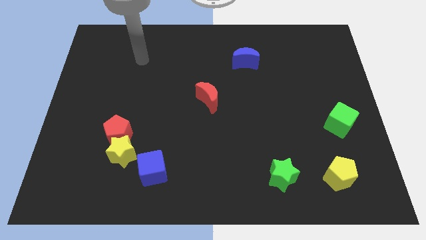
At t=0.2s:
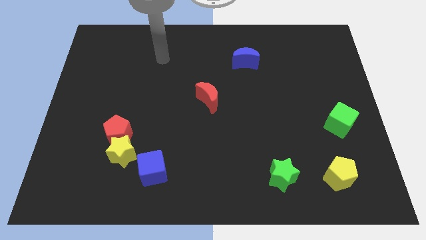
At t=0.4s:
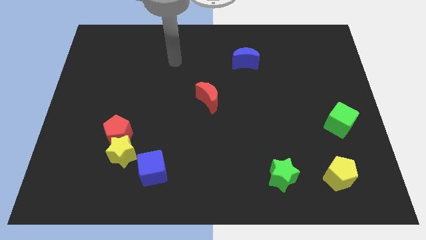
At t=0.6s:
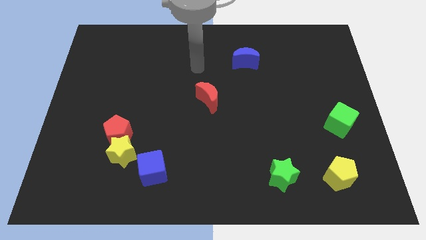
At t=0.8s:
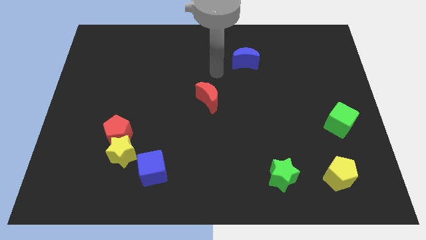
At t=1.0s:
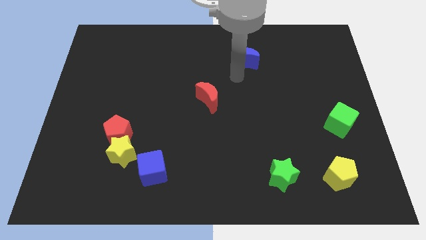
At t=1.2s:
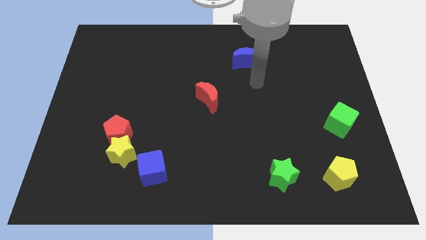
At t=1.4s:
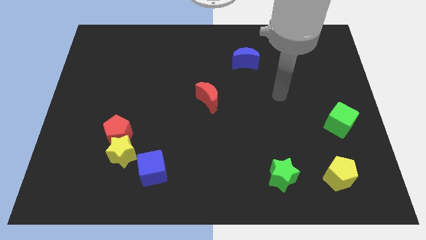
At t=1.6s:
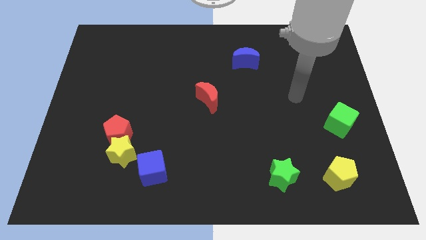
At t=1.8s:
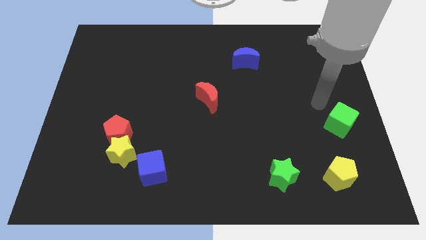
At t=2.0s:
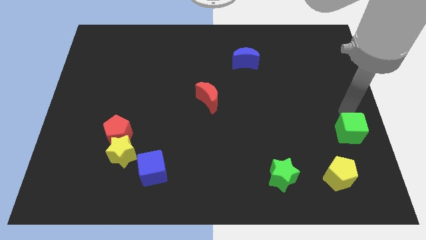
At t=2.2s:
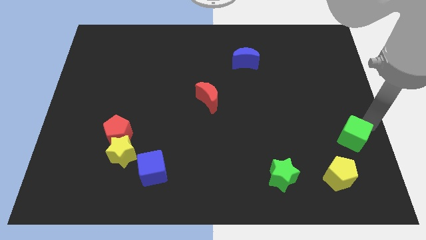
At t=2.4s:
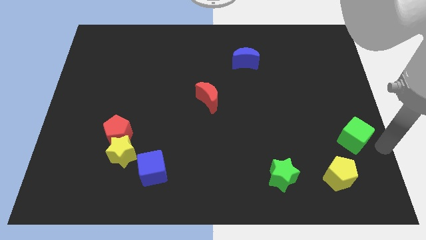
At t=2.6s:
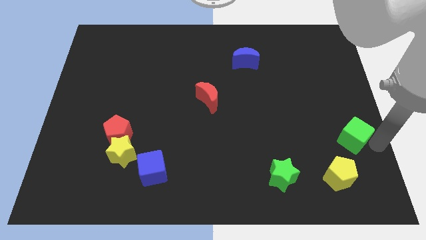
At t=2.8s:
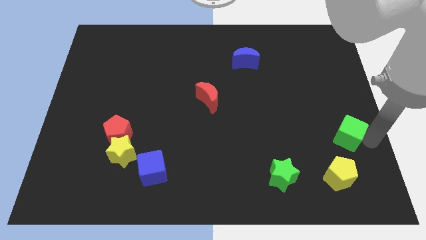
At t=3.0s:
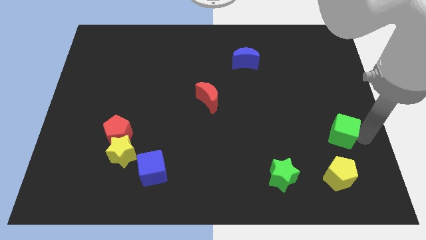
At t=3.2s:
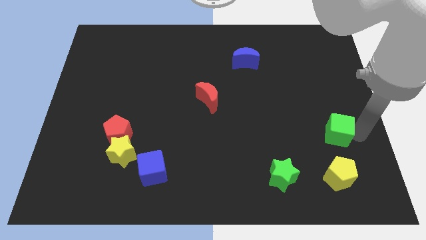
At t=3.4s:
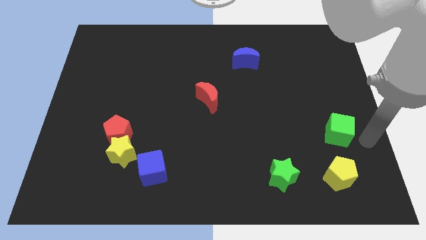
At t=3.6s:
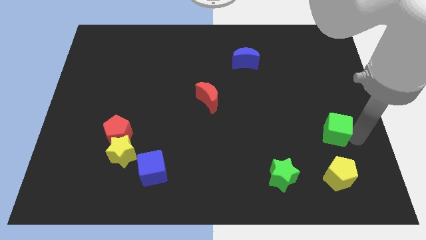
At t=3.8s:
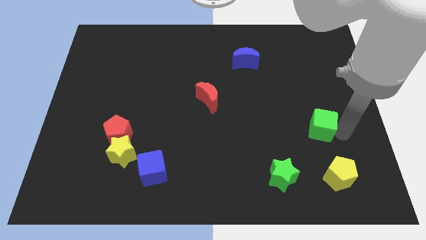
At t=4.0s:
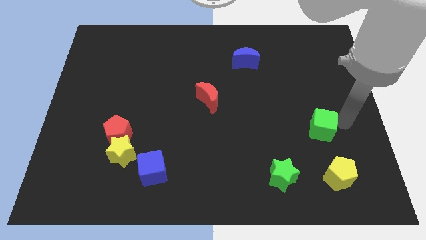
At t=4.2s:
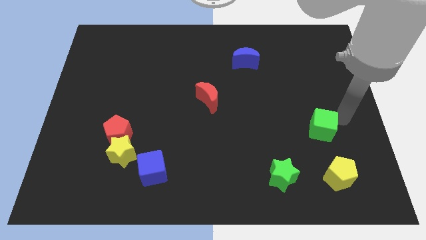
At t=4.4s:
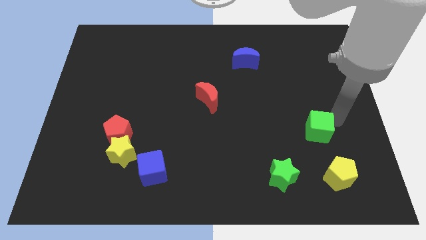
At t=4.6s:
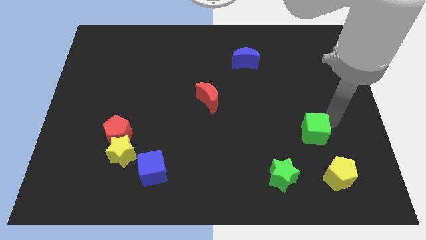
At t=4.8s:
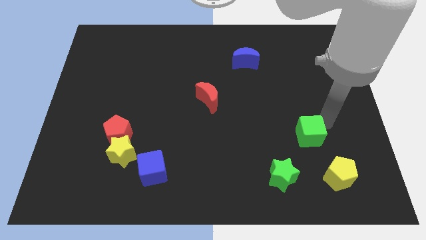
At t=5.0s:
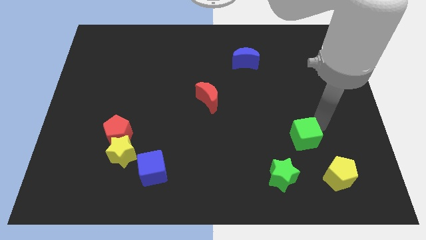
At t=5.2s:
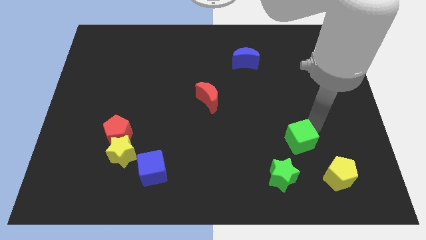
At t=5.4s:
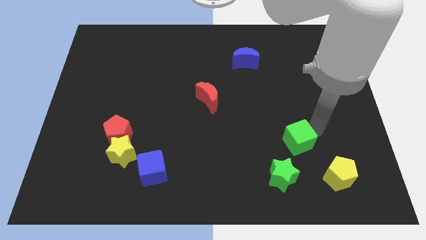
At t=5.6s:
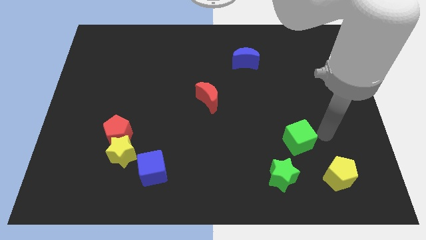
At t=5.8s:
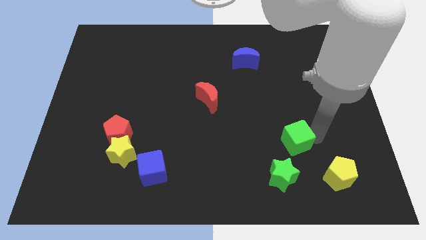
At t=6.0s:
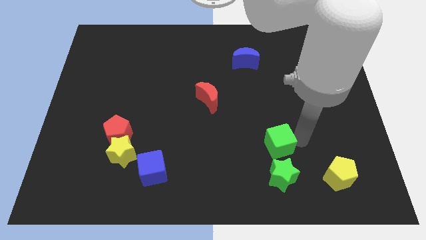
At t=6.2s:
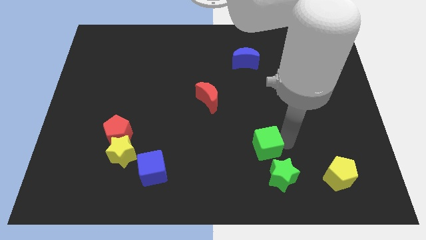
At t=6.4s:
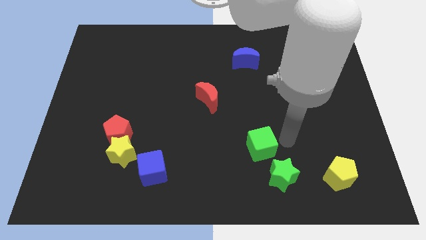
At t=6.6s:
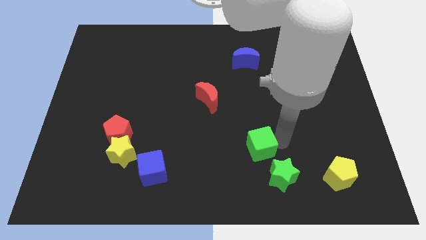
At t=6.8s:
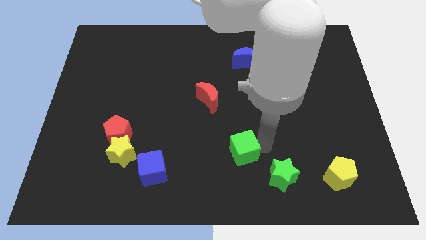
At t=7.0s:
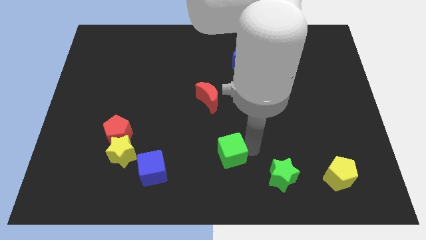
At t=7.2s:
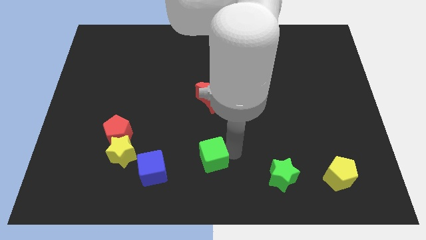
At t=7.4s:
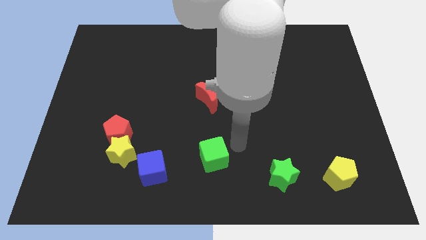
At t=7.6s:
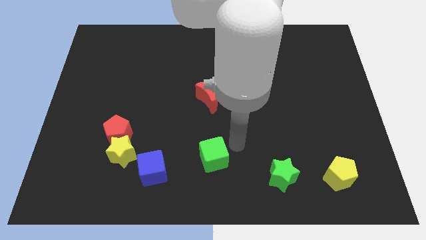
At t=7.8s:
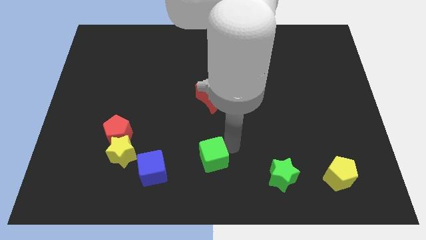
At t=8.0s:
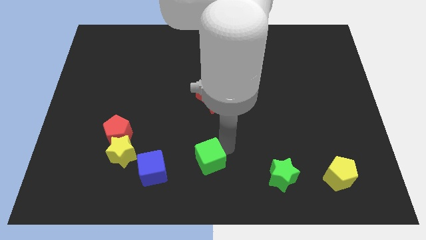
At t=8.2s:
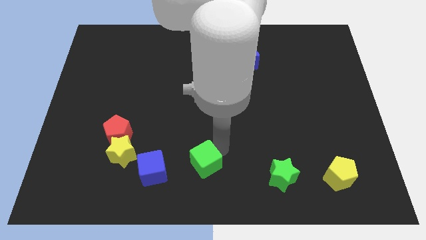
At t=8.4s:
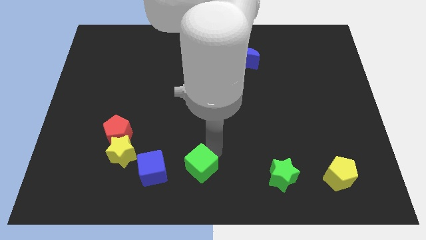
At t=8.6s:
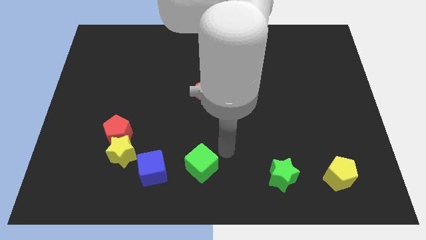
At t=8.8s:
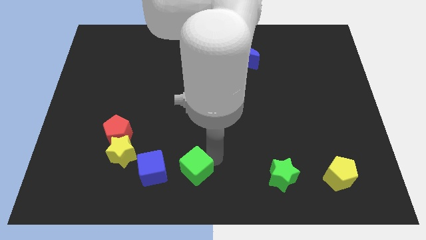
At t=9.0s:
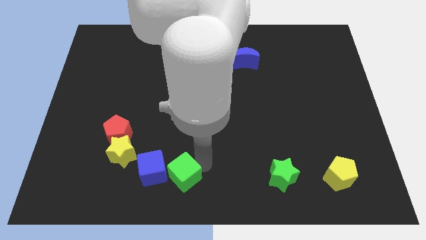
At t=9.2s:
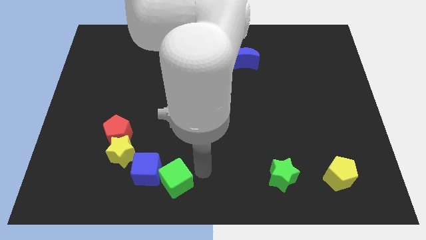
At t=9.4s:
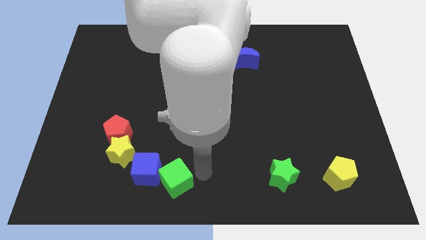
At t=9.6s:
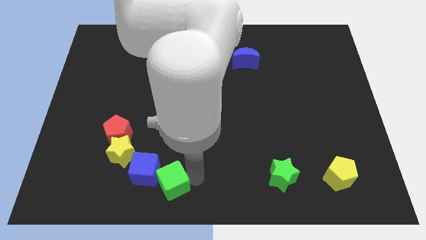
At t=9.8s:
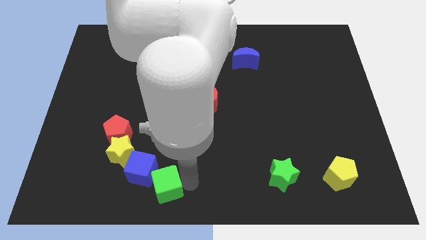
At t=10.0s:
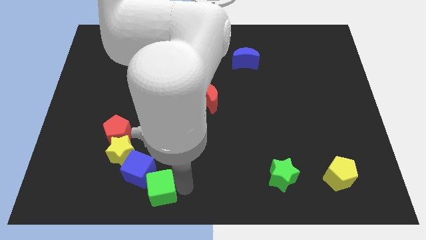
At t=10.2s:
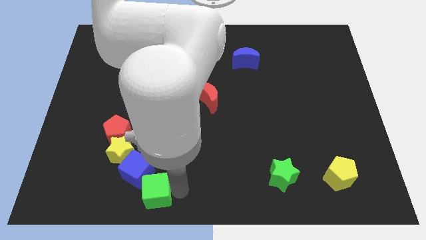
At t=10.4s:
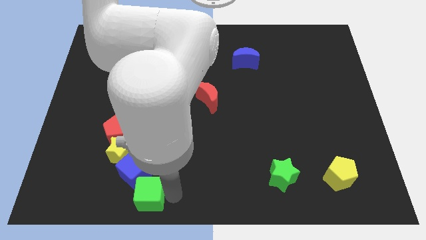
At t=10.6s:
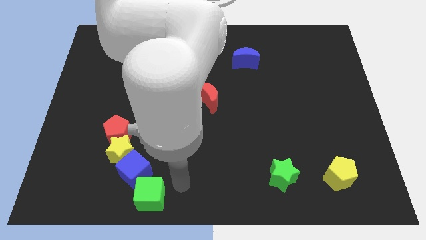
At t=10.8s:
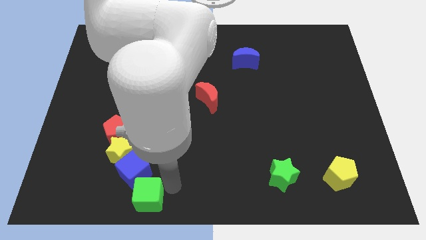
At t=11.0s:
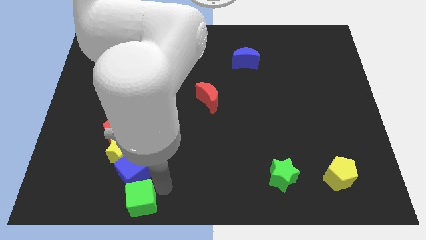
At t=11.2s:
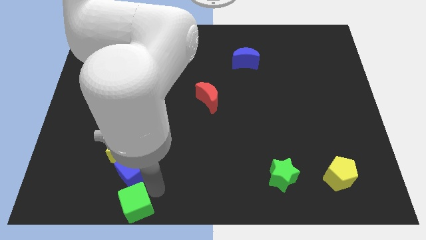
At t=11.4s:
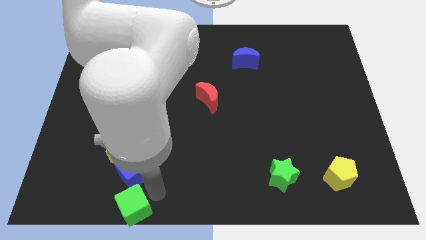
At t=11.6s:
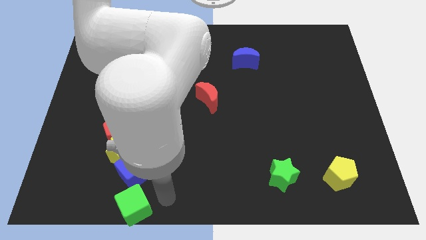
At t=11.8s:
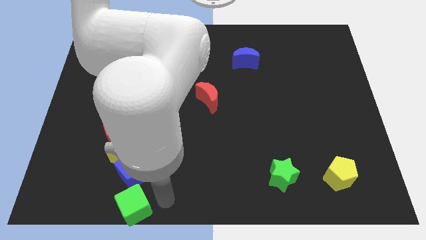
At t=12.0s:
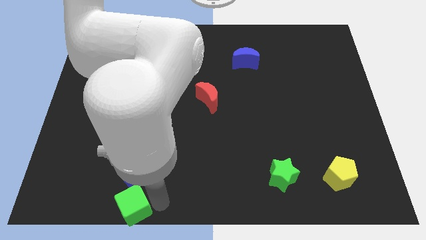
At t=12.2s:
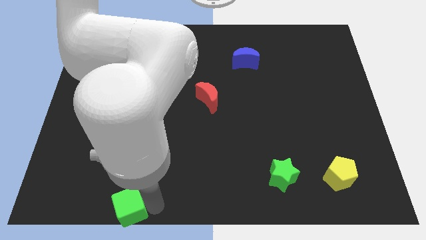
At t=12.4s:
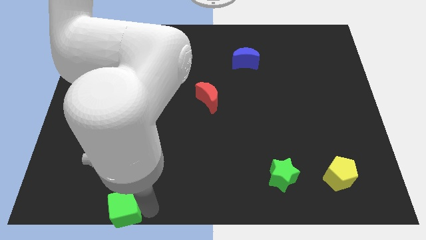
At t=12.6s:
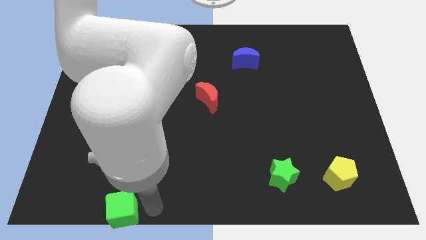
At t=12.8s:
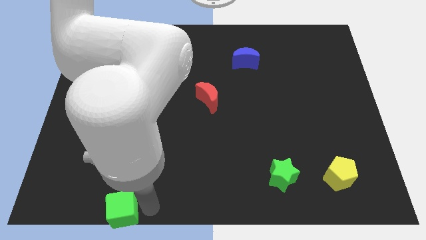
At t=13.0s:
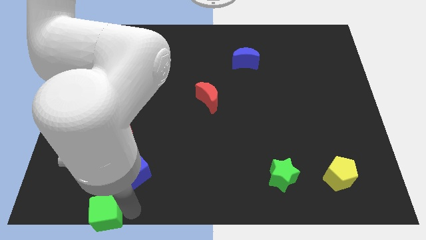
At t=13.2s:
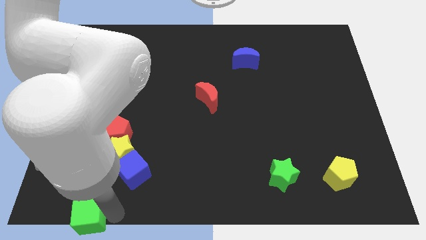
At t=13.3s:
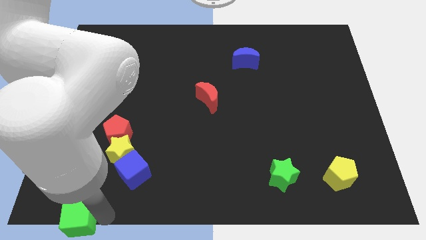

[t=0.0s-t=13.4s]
slide the green cube to the bottom left
